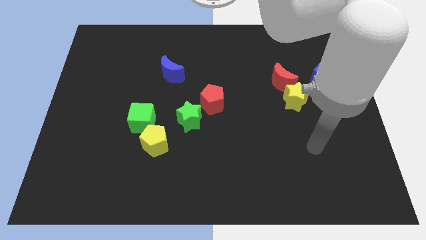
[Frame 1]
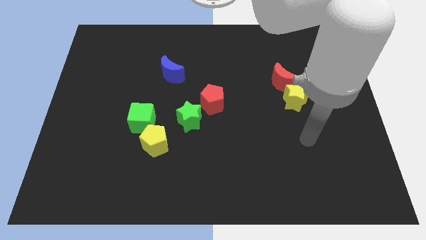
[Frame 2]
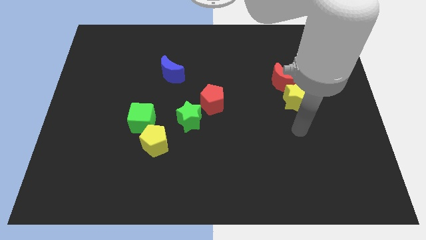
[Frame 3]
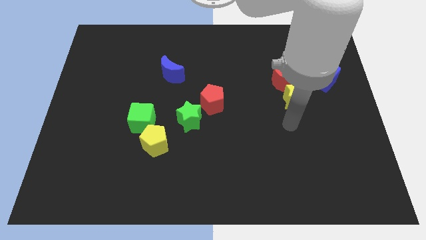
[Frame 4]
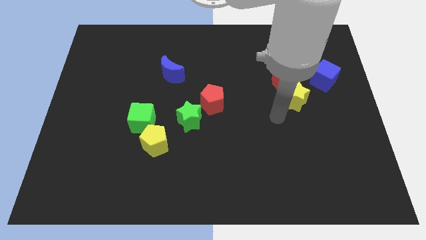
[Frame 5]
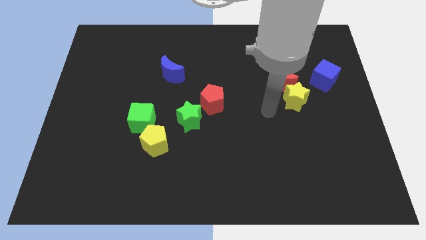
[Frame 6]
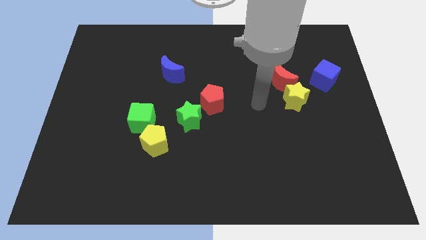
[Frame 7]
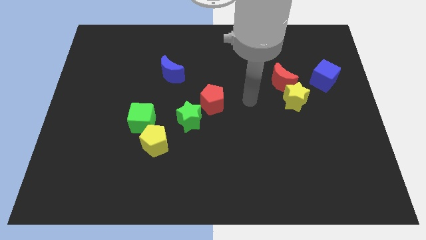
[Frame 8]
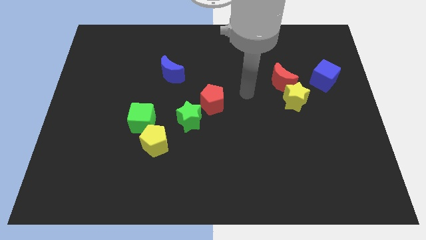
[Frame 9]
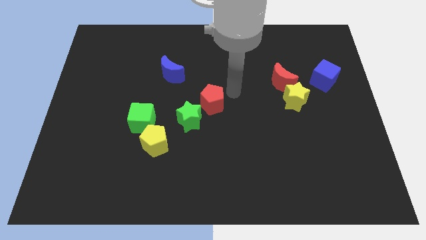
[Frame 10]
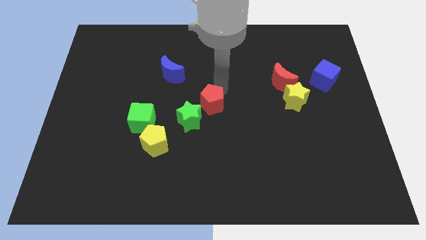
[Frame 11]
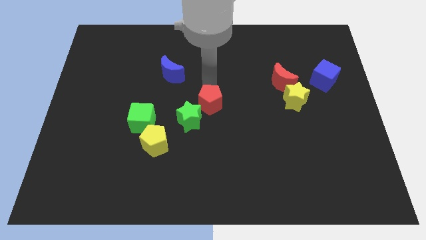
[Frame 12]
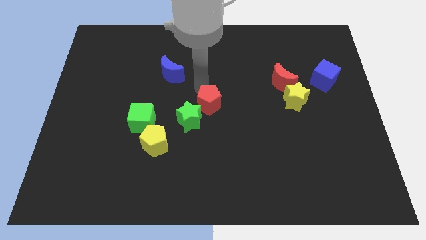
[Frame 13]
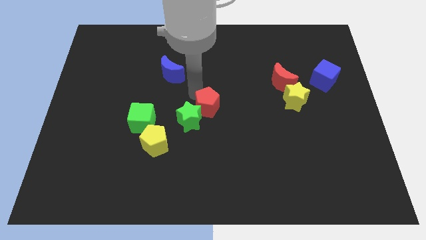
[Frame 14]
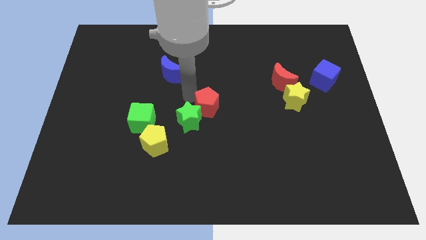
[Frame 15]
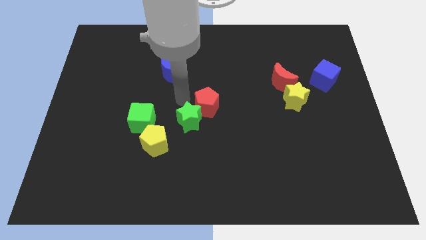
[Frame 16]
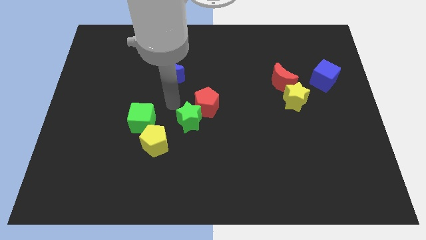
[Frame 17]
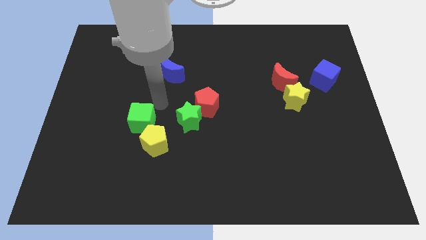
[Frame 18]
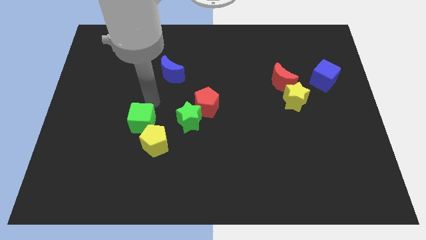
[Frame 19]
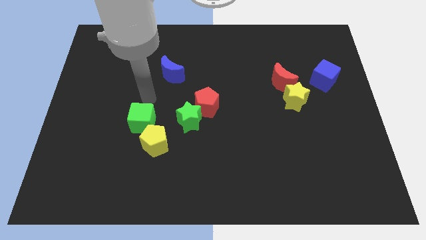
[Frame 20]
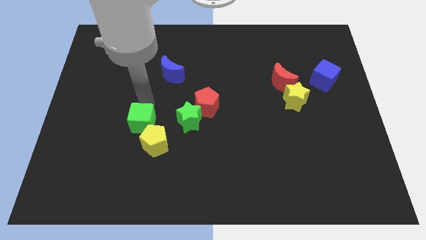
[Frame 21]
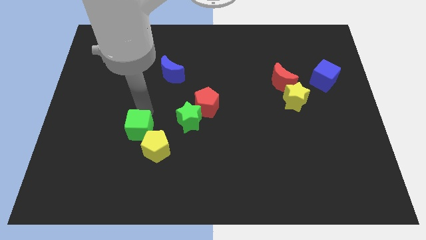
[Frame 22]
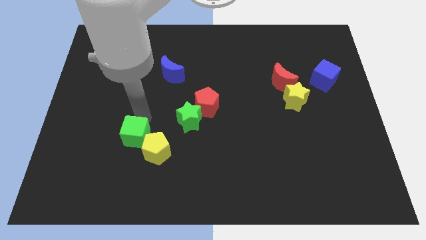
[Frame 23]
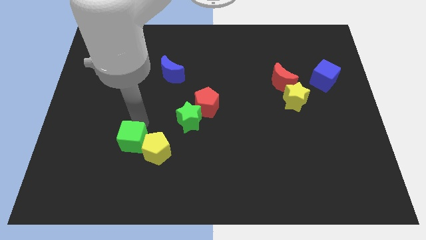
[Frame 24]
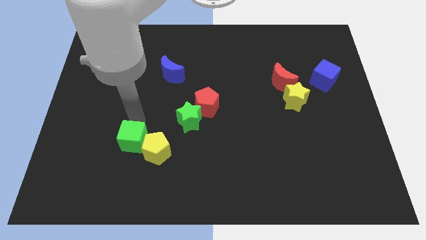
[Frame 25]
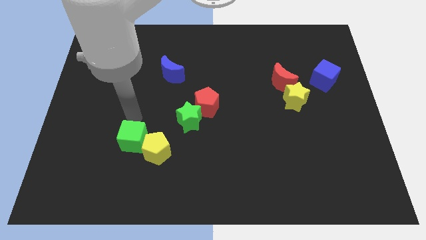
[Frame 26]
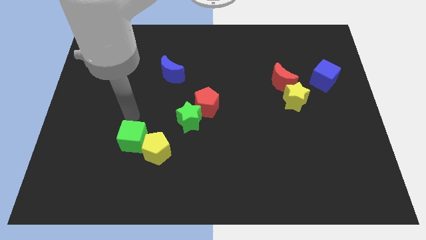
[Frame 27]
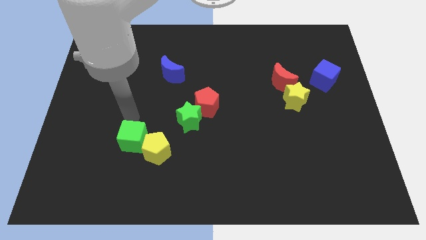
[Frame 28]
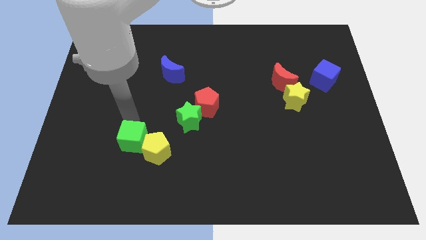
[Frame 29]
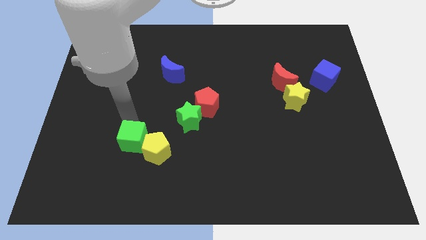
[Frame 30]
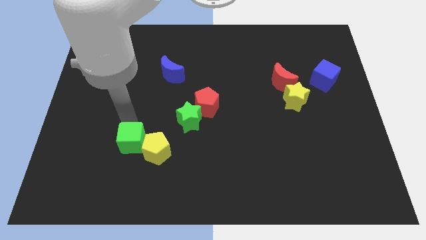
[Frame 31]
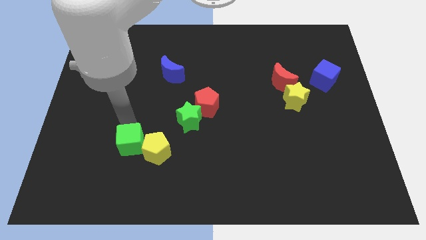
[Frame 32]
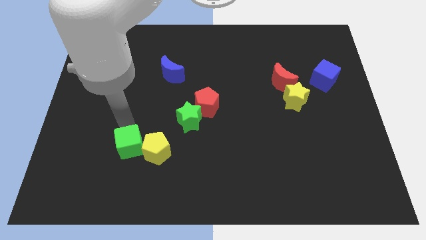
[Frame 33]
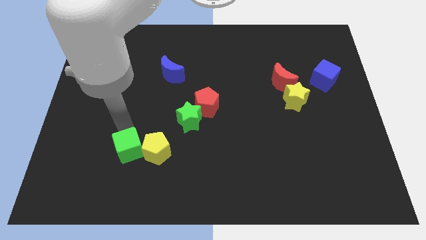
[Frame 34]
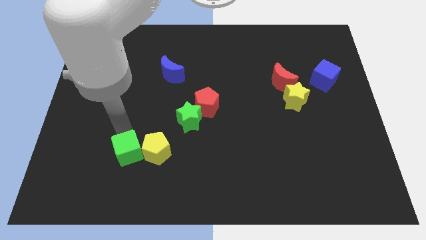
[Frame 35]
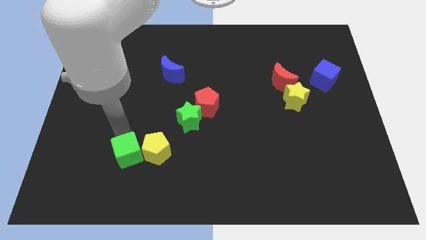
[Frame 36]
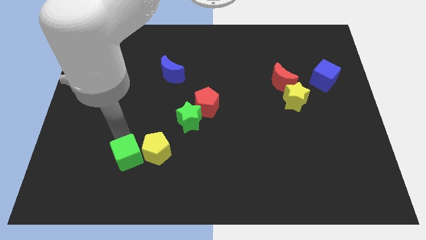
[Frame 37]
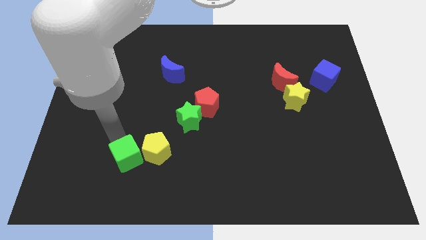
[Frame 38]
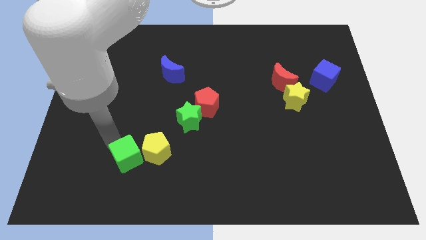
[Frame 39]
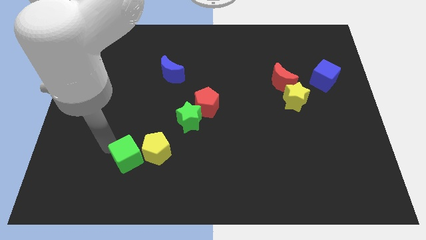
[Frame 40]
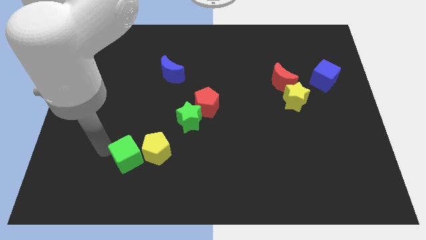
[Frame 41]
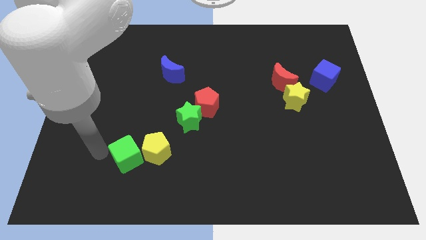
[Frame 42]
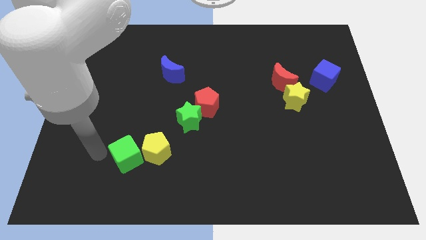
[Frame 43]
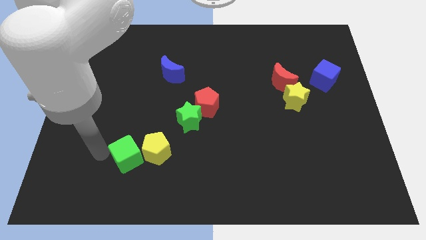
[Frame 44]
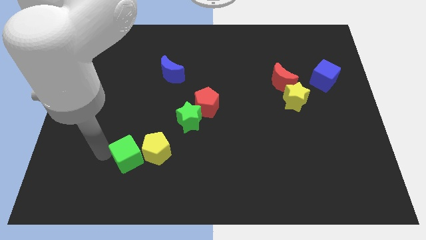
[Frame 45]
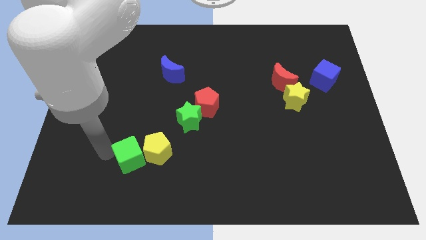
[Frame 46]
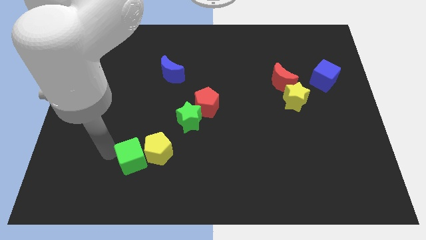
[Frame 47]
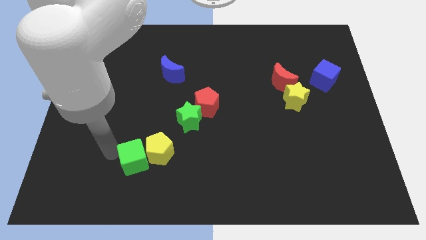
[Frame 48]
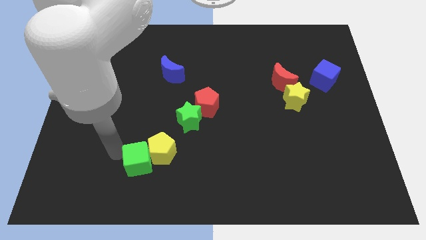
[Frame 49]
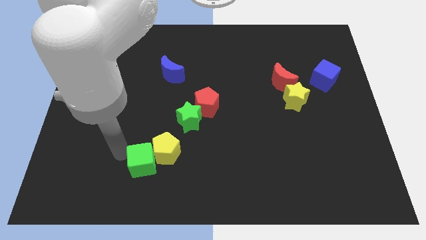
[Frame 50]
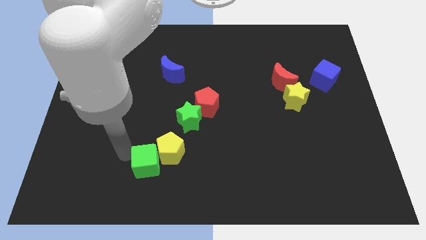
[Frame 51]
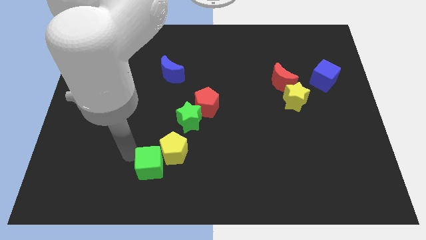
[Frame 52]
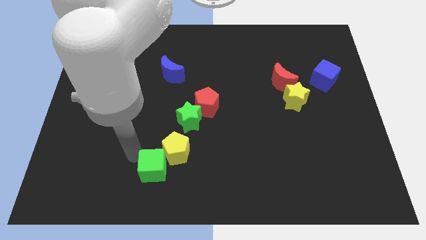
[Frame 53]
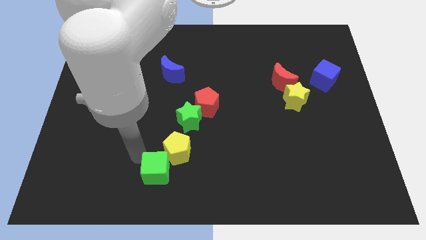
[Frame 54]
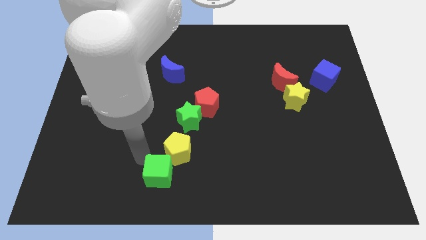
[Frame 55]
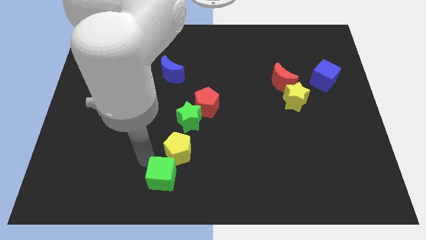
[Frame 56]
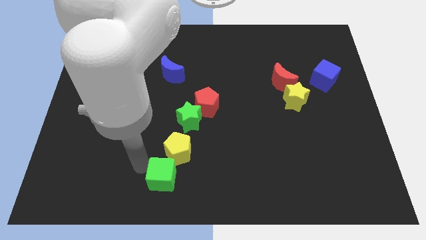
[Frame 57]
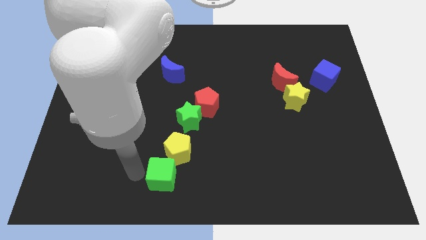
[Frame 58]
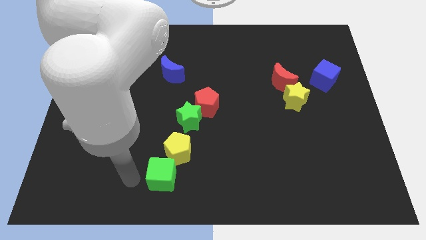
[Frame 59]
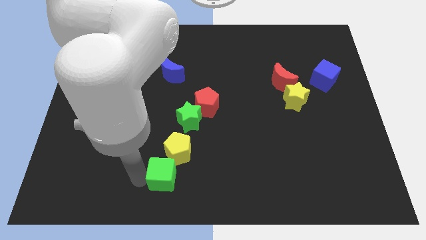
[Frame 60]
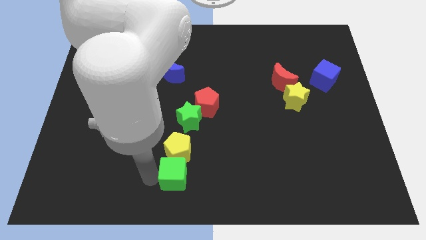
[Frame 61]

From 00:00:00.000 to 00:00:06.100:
put the green cube to the bottom right side of the yellow pentagon

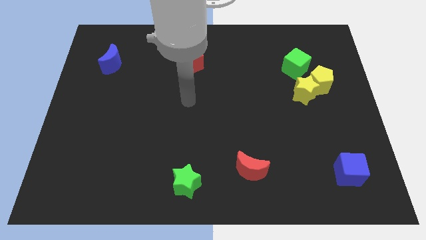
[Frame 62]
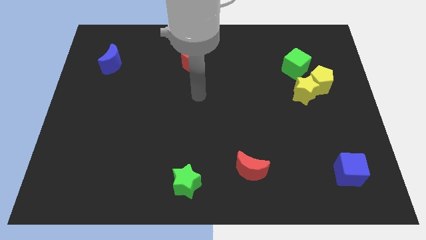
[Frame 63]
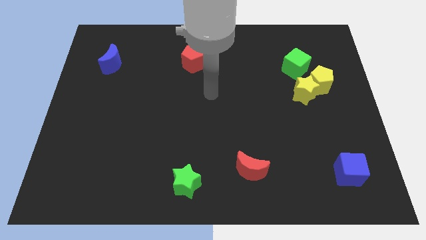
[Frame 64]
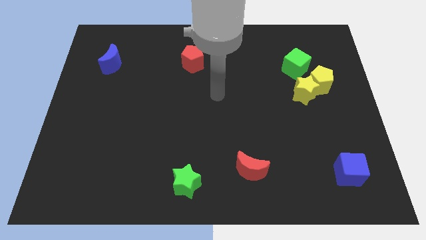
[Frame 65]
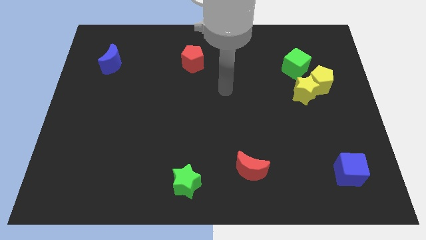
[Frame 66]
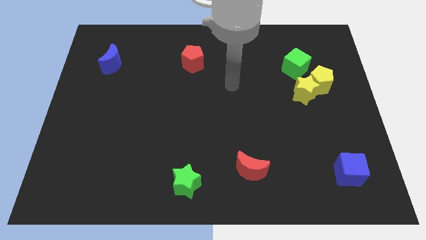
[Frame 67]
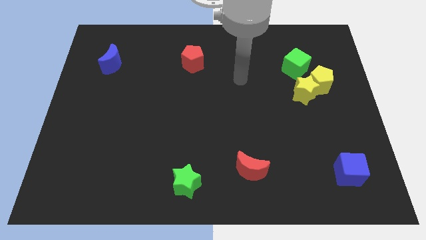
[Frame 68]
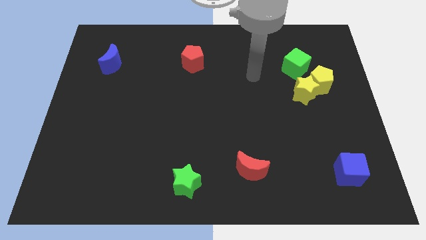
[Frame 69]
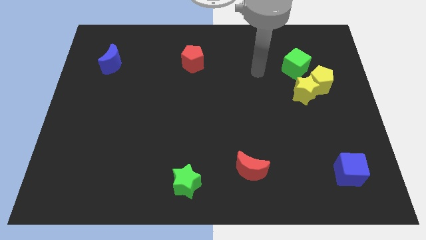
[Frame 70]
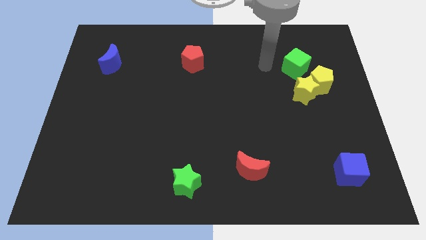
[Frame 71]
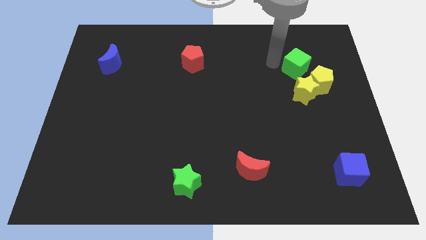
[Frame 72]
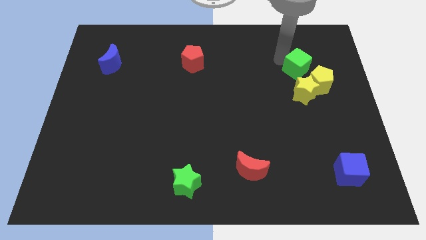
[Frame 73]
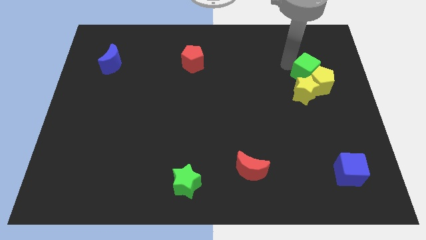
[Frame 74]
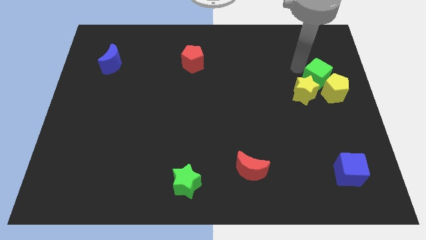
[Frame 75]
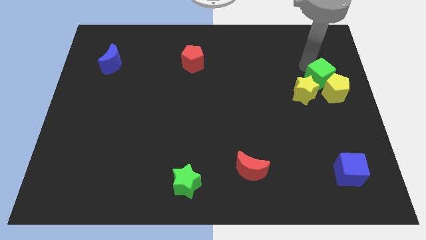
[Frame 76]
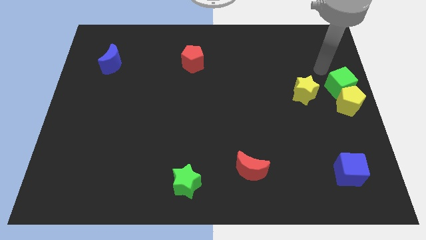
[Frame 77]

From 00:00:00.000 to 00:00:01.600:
put the yellow pentagon to the bottom right side of the yellow star
